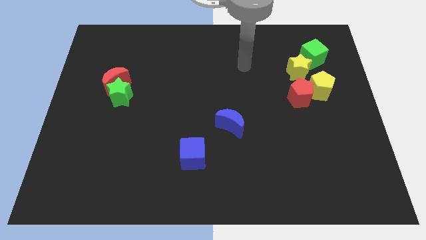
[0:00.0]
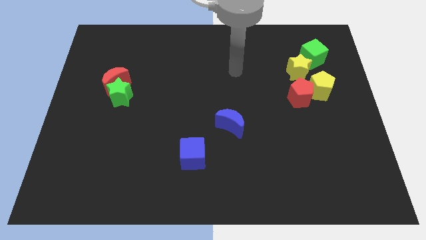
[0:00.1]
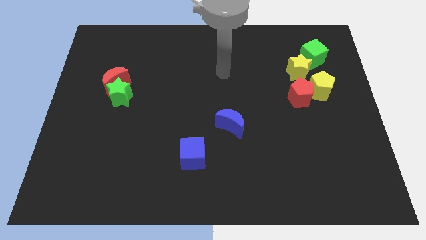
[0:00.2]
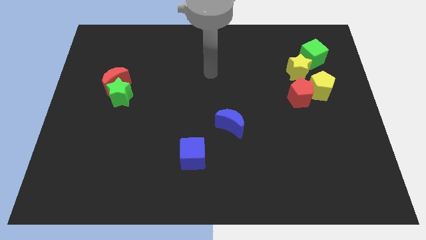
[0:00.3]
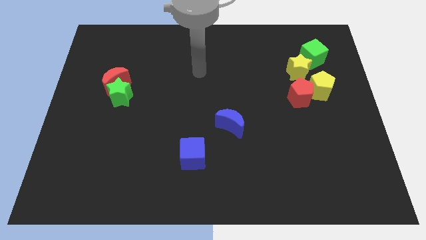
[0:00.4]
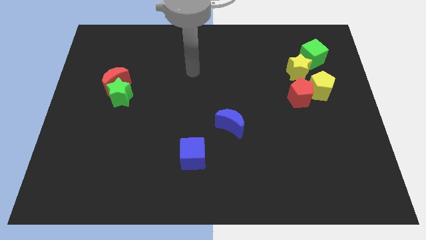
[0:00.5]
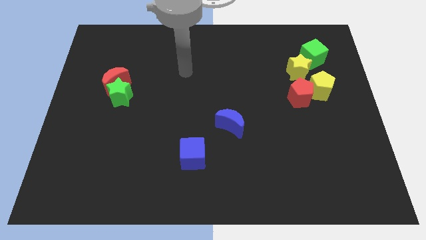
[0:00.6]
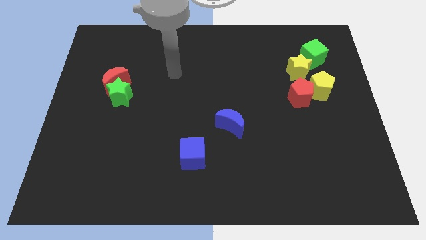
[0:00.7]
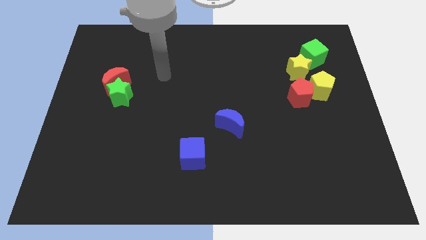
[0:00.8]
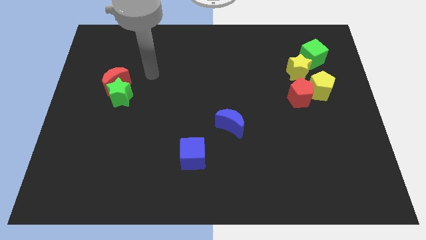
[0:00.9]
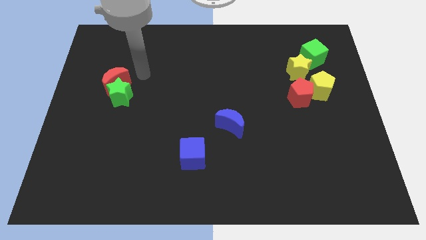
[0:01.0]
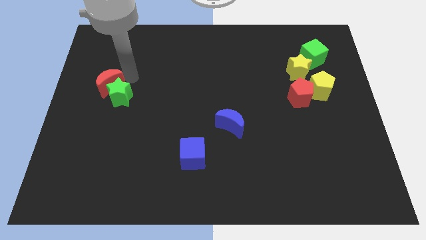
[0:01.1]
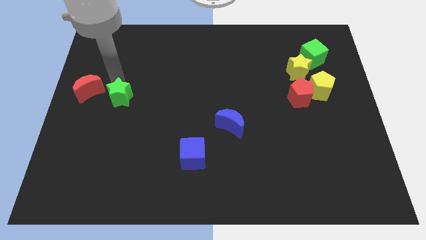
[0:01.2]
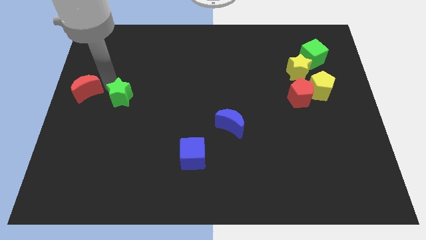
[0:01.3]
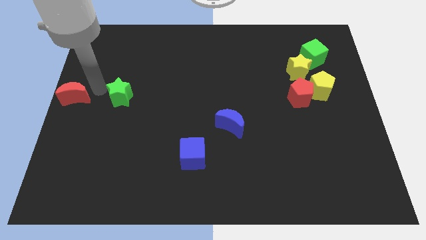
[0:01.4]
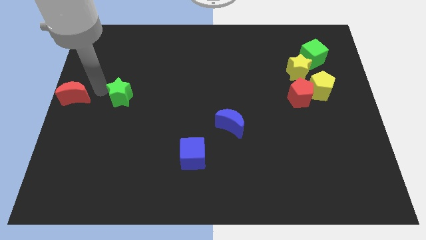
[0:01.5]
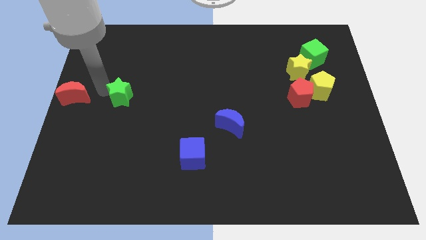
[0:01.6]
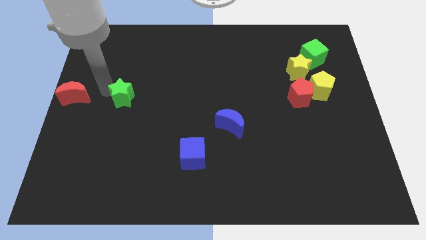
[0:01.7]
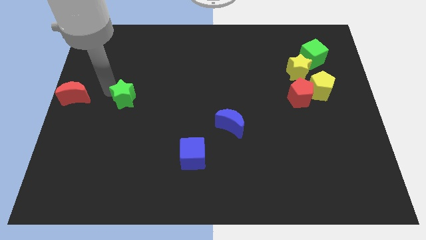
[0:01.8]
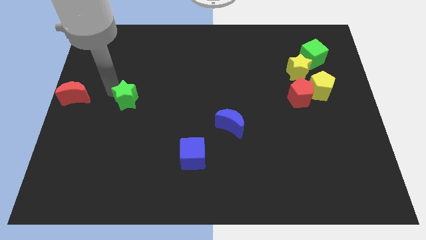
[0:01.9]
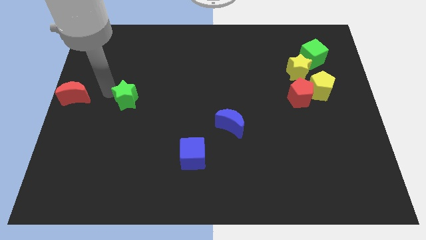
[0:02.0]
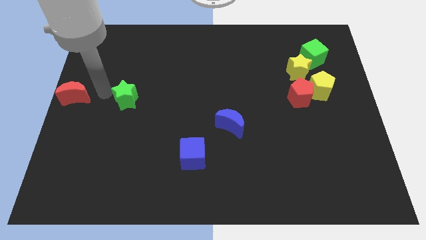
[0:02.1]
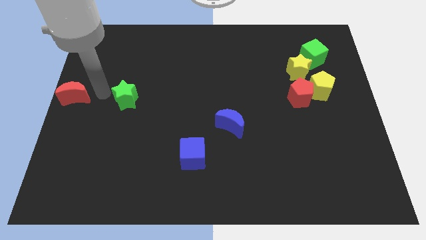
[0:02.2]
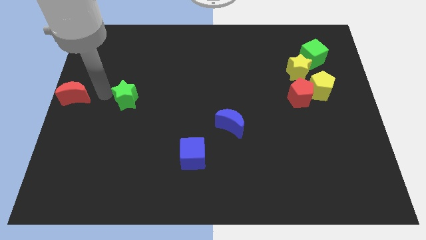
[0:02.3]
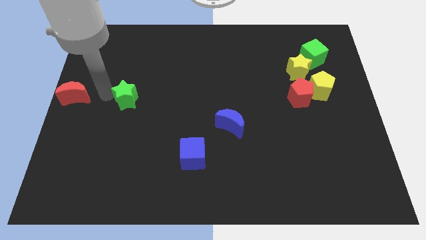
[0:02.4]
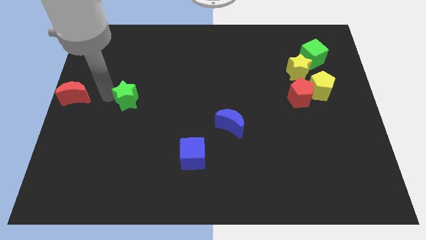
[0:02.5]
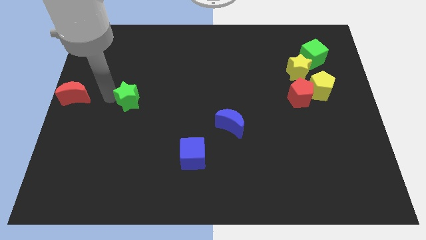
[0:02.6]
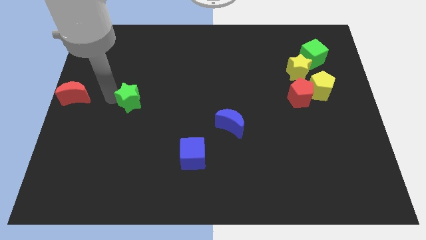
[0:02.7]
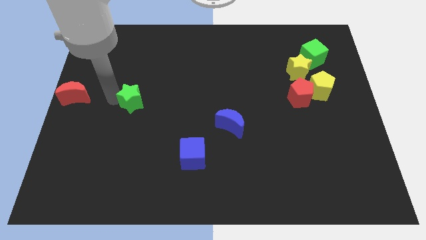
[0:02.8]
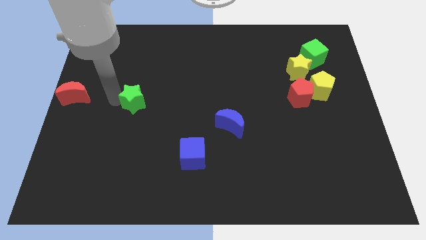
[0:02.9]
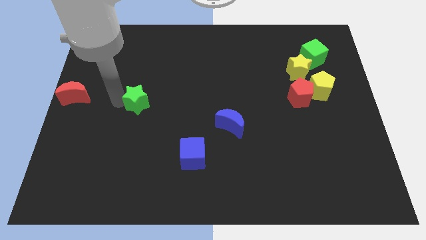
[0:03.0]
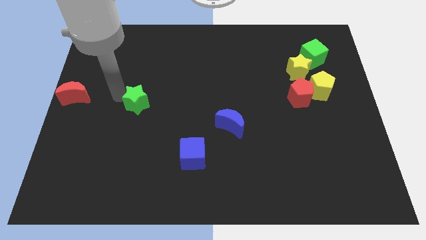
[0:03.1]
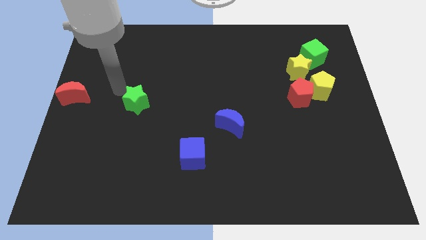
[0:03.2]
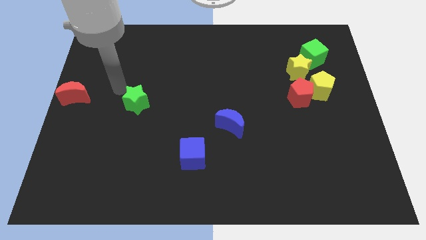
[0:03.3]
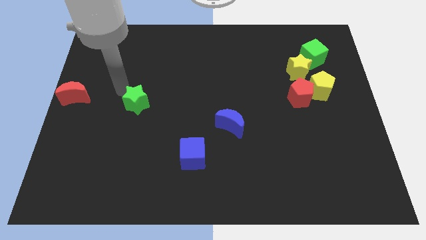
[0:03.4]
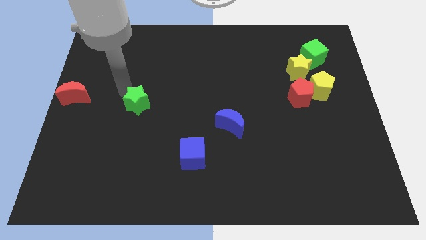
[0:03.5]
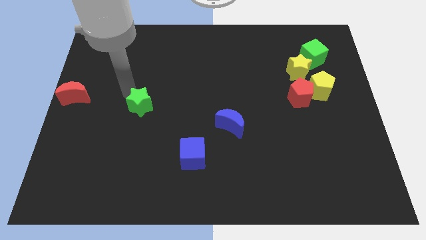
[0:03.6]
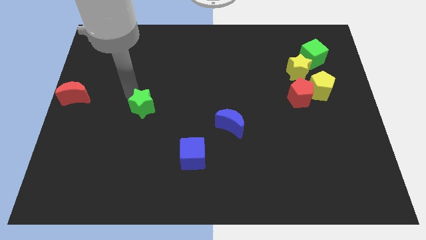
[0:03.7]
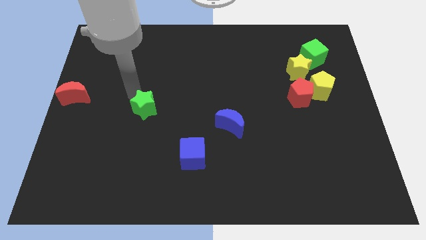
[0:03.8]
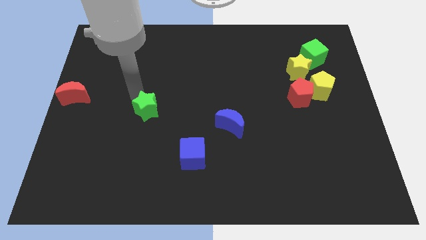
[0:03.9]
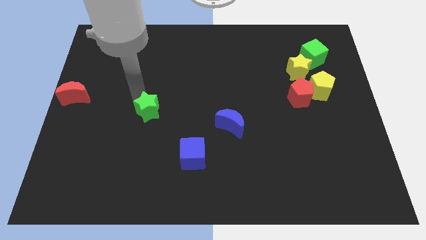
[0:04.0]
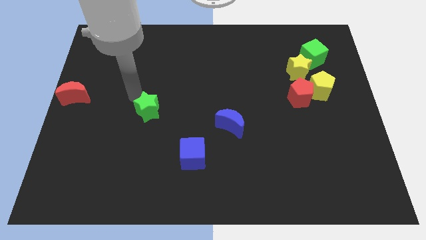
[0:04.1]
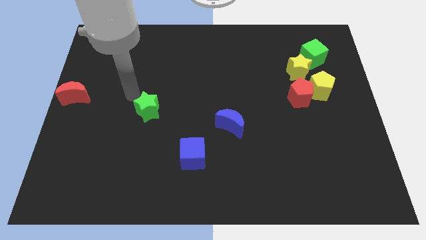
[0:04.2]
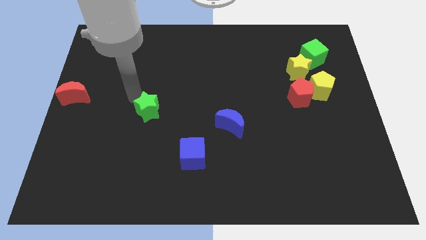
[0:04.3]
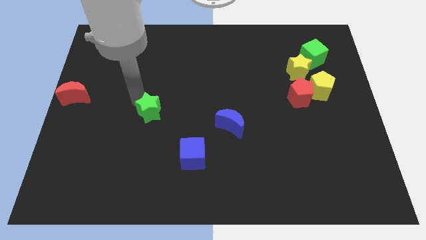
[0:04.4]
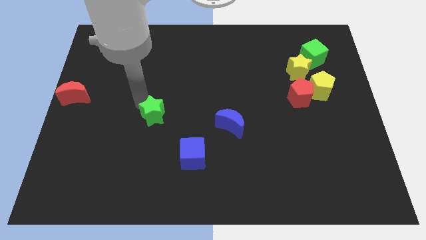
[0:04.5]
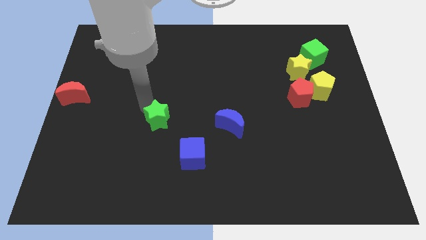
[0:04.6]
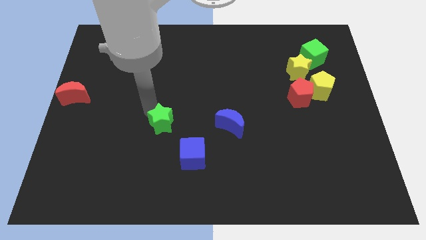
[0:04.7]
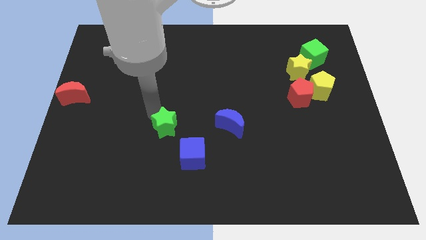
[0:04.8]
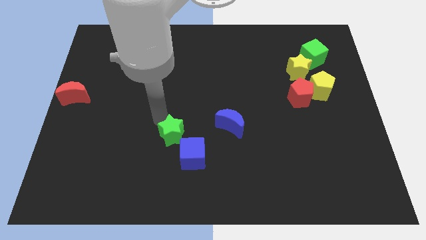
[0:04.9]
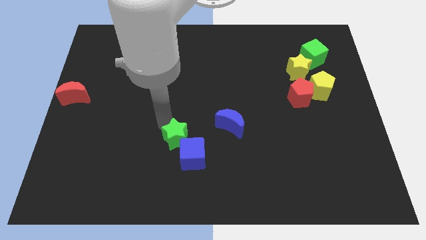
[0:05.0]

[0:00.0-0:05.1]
put the green star next to the blue cube

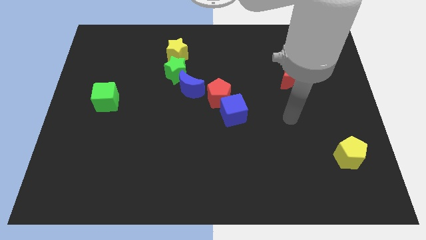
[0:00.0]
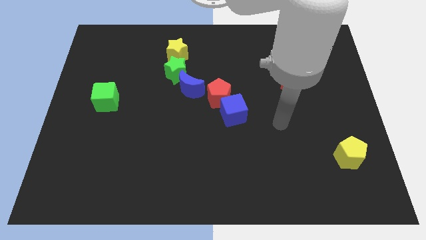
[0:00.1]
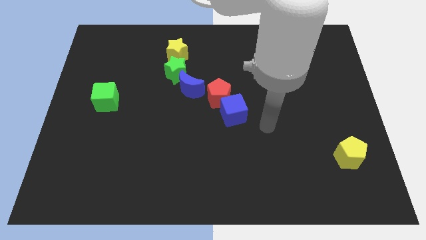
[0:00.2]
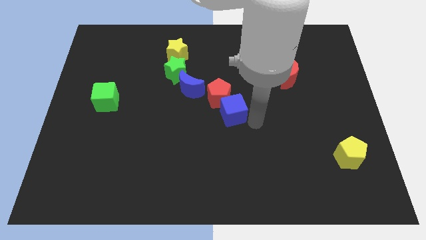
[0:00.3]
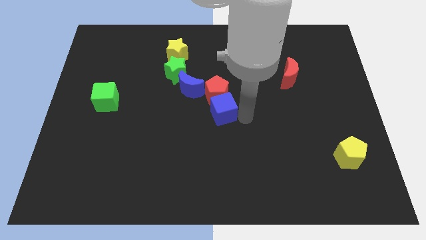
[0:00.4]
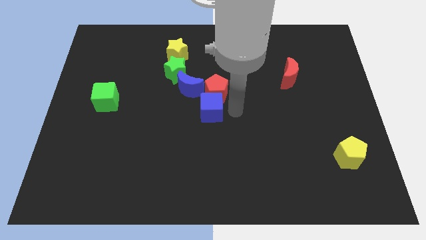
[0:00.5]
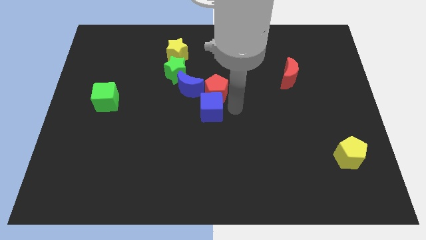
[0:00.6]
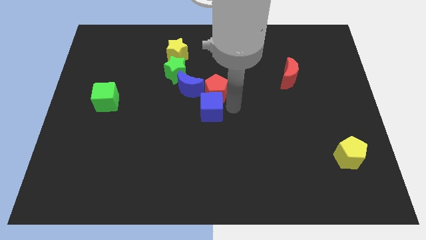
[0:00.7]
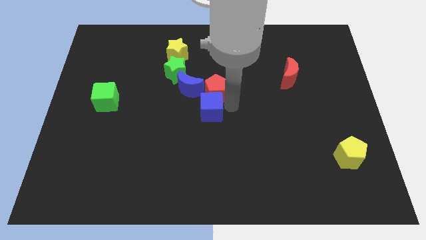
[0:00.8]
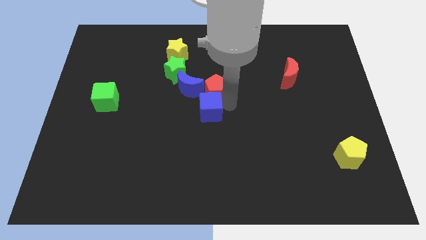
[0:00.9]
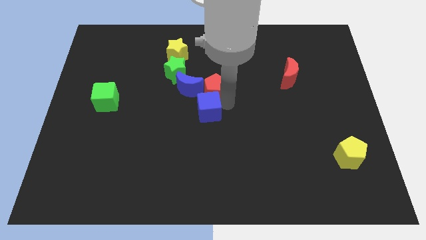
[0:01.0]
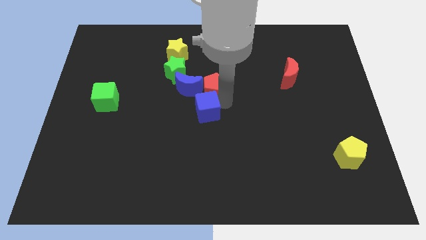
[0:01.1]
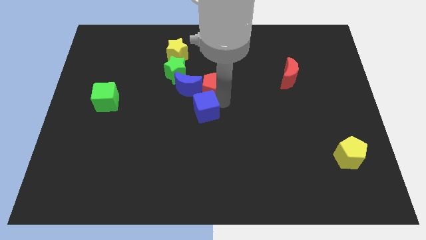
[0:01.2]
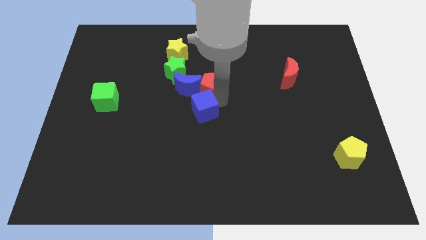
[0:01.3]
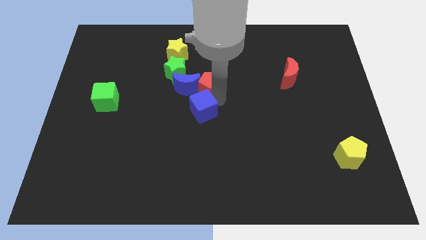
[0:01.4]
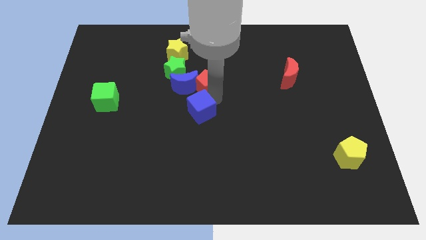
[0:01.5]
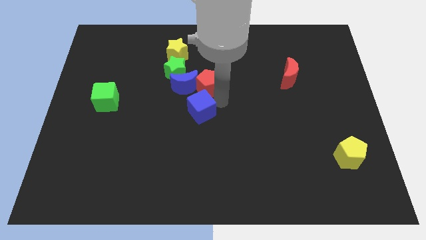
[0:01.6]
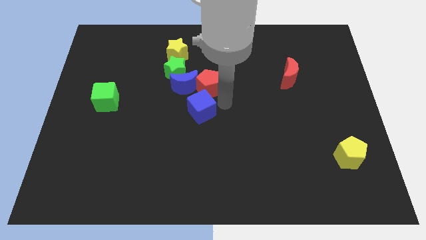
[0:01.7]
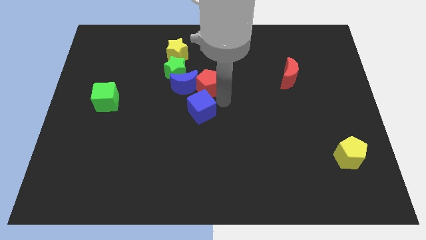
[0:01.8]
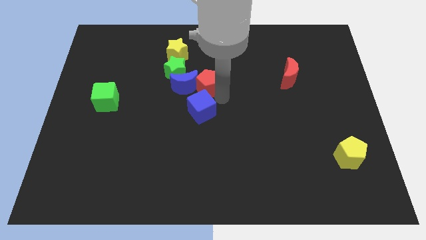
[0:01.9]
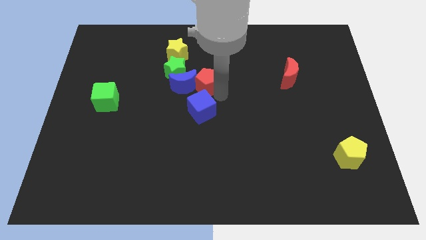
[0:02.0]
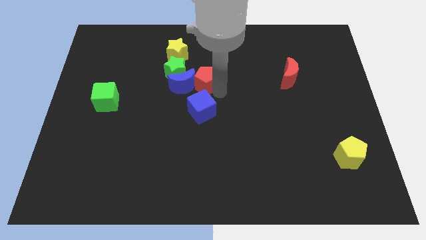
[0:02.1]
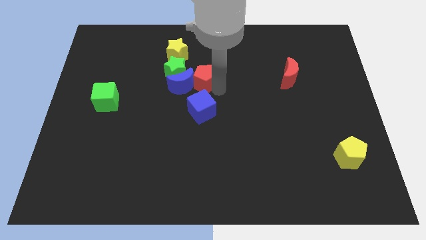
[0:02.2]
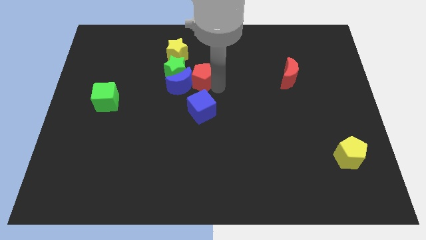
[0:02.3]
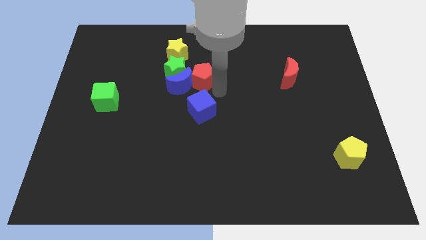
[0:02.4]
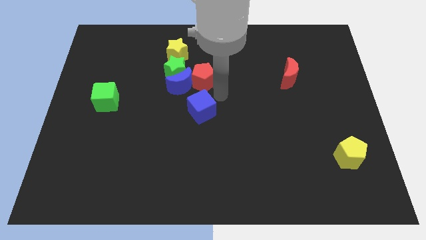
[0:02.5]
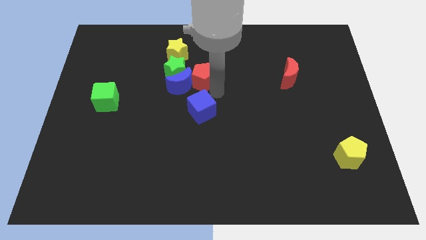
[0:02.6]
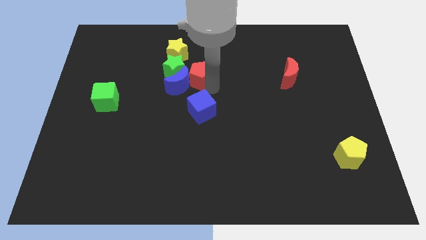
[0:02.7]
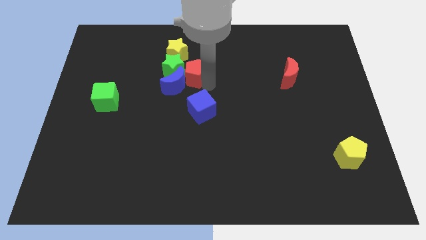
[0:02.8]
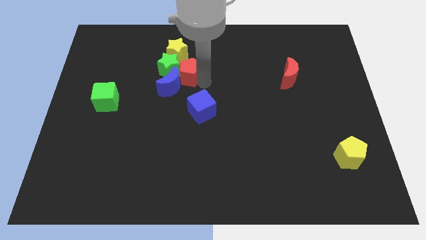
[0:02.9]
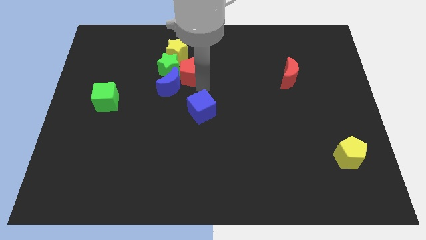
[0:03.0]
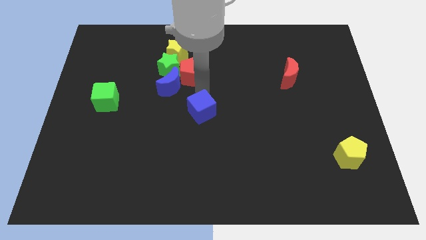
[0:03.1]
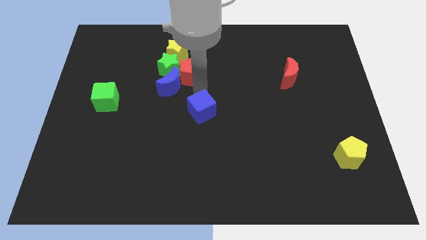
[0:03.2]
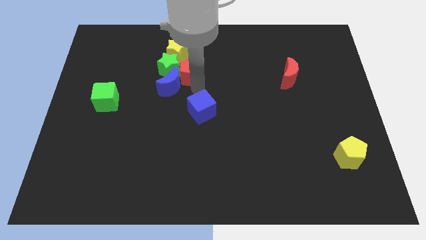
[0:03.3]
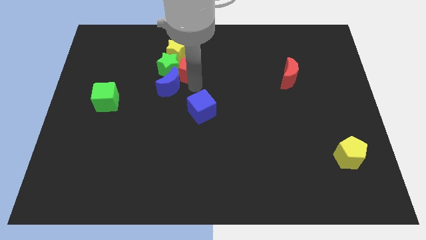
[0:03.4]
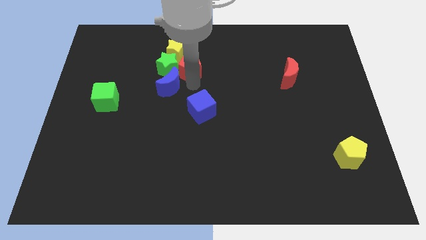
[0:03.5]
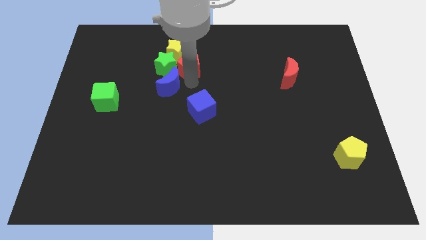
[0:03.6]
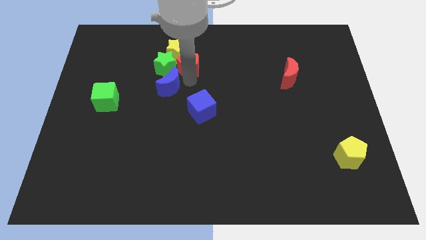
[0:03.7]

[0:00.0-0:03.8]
slide the red pentagon to the yellow star
